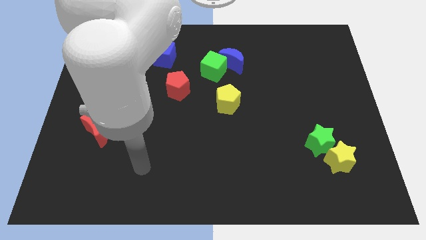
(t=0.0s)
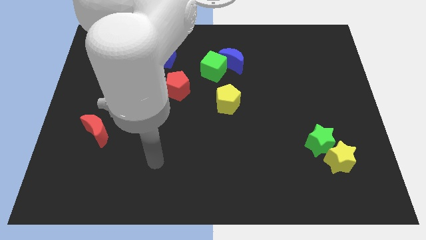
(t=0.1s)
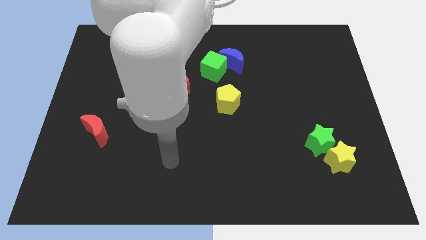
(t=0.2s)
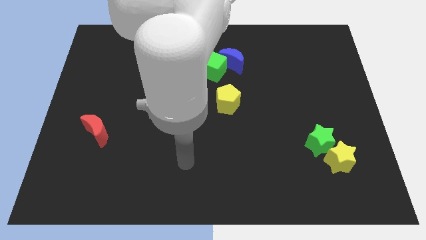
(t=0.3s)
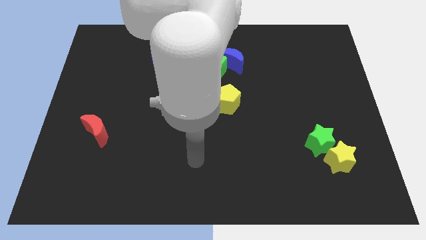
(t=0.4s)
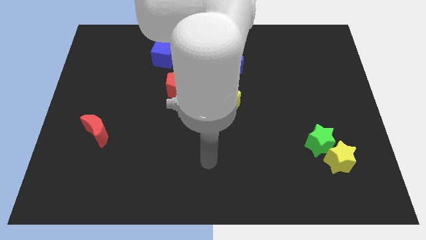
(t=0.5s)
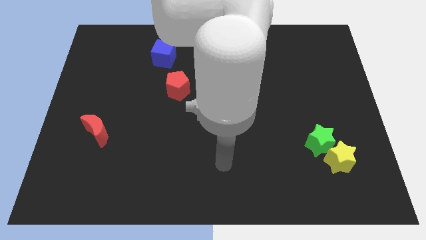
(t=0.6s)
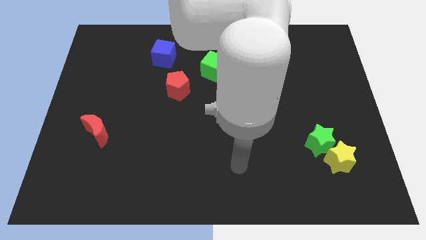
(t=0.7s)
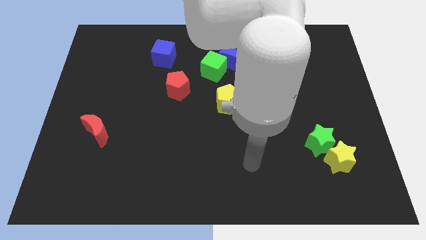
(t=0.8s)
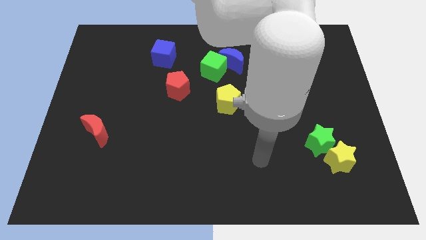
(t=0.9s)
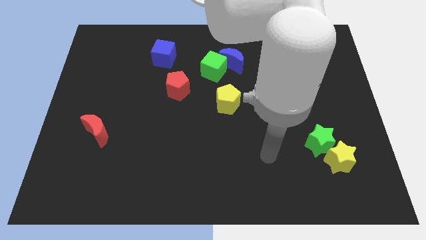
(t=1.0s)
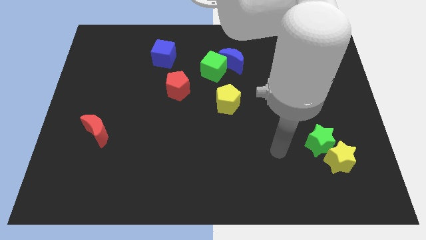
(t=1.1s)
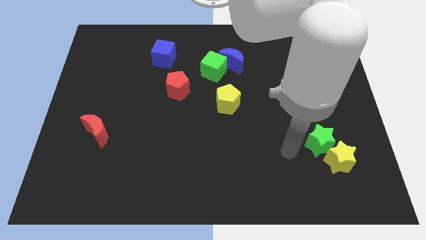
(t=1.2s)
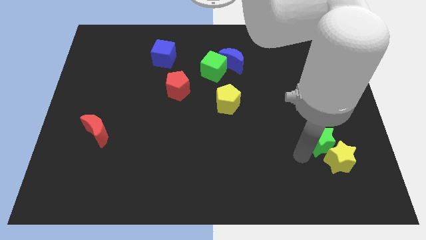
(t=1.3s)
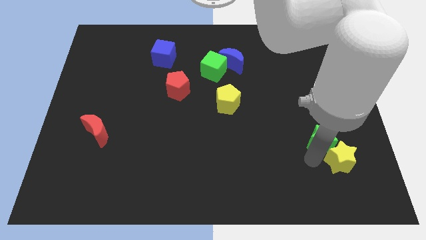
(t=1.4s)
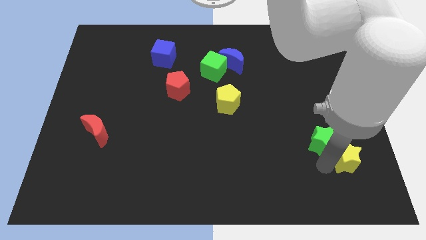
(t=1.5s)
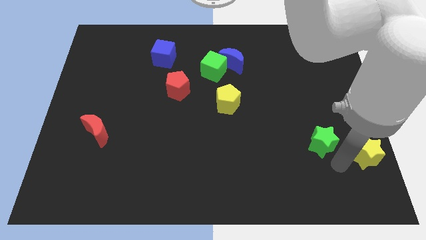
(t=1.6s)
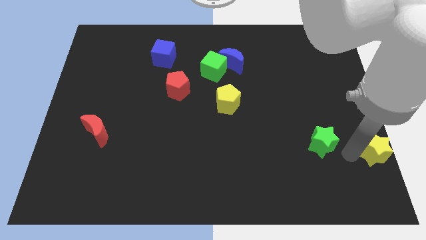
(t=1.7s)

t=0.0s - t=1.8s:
move the green star away from the yellow star

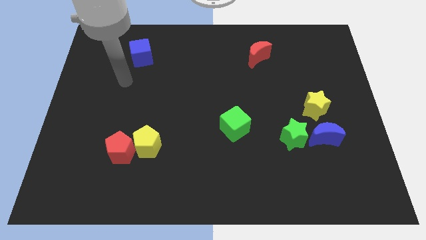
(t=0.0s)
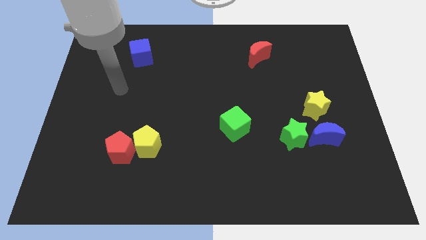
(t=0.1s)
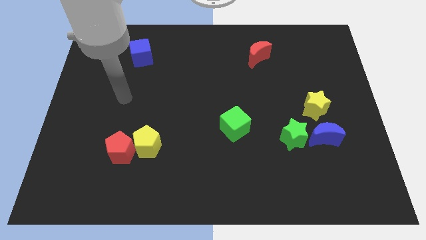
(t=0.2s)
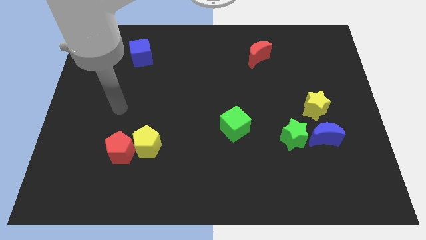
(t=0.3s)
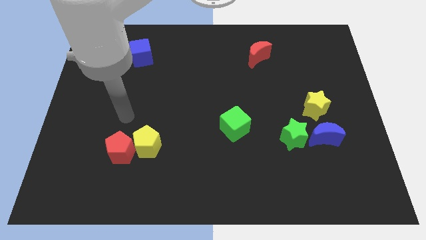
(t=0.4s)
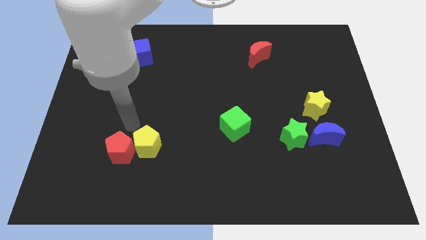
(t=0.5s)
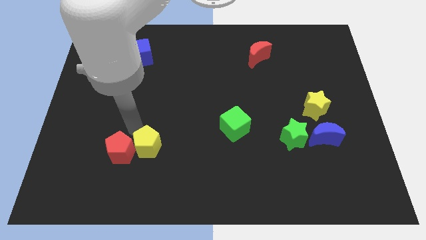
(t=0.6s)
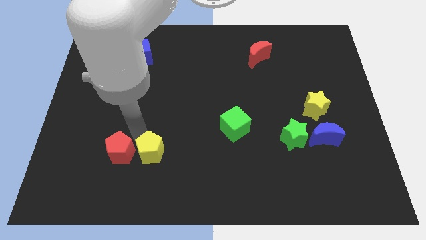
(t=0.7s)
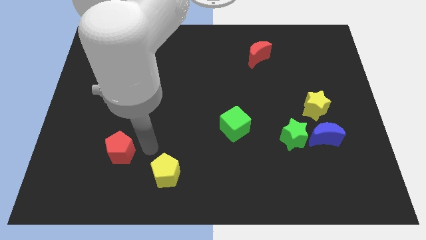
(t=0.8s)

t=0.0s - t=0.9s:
pull the red pentagon apart from the yellow pentagon

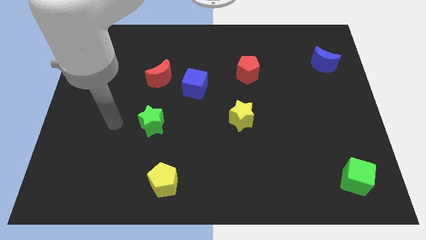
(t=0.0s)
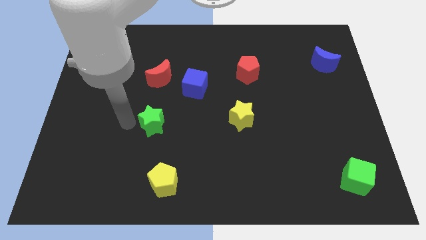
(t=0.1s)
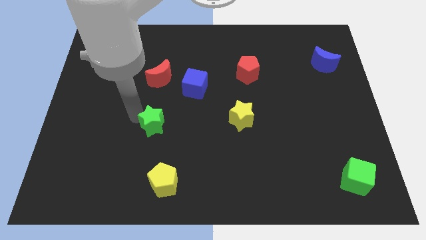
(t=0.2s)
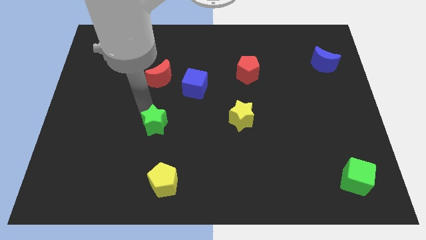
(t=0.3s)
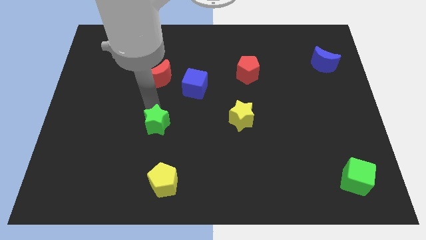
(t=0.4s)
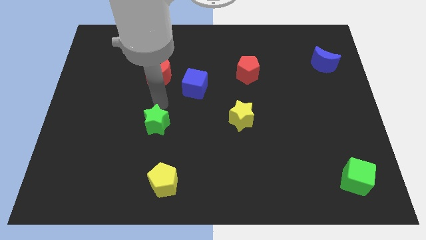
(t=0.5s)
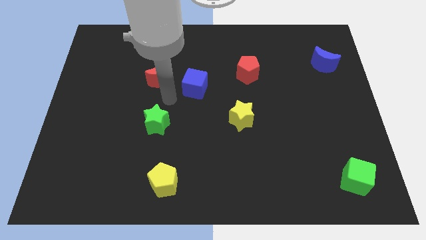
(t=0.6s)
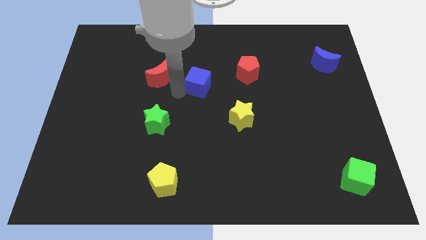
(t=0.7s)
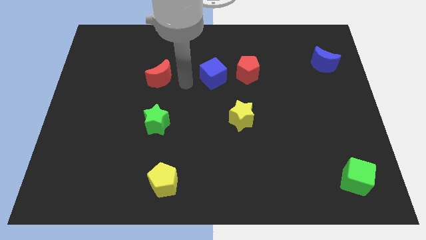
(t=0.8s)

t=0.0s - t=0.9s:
pull the red moon apart from the blue cube

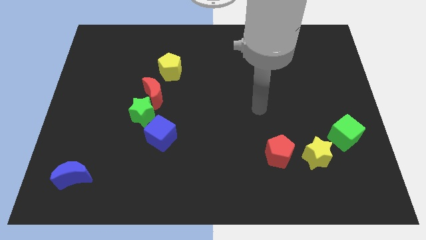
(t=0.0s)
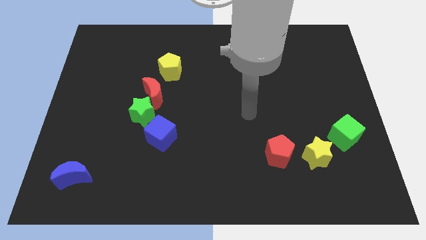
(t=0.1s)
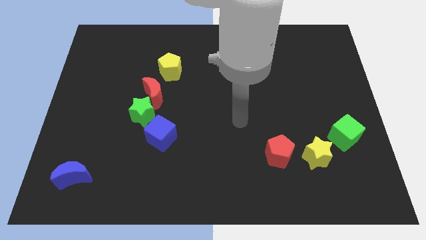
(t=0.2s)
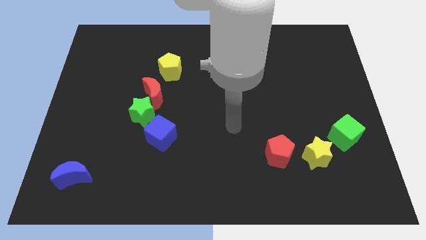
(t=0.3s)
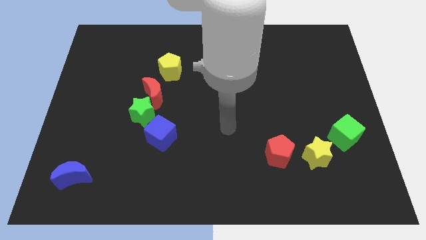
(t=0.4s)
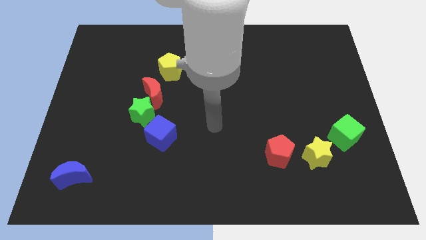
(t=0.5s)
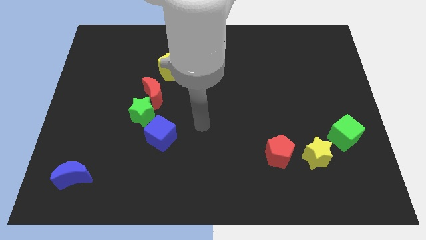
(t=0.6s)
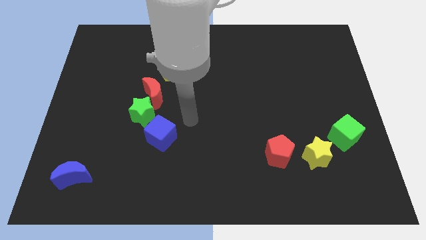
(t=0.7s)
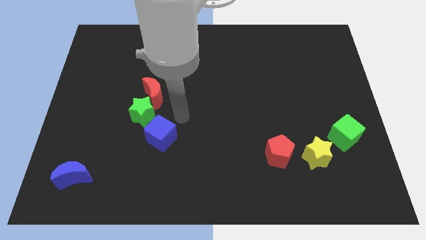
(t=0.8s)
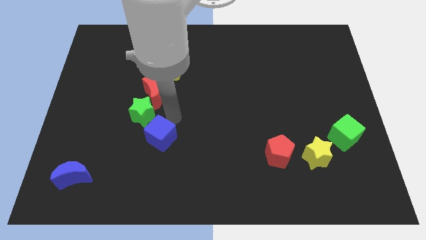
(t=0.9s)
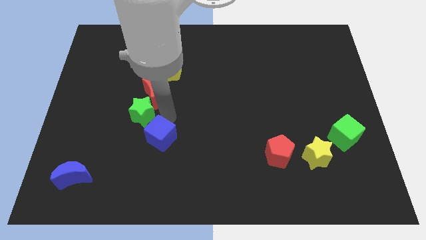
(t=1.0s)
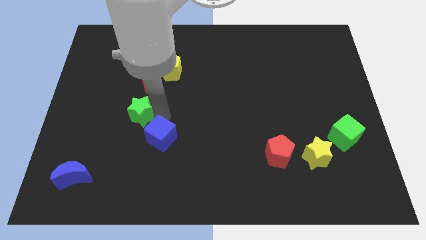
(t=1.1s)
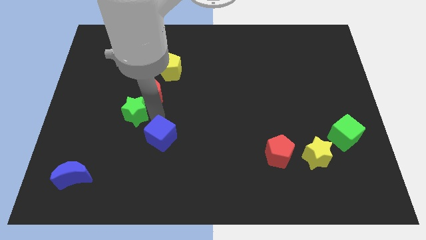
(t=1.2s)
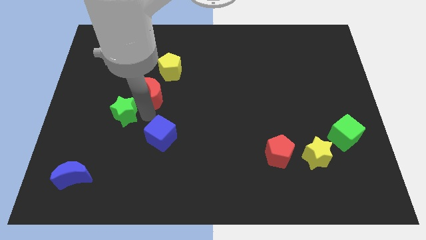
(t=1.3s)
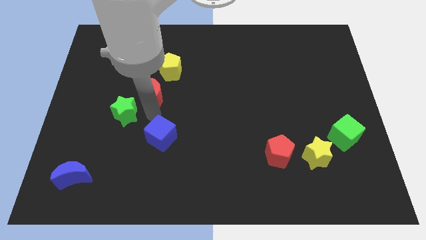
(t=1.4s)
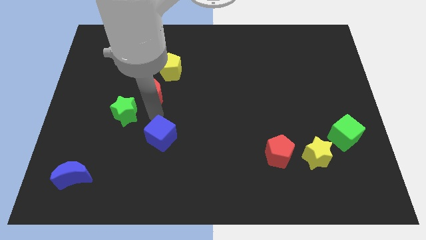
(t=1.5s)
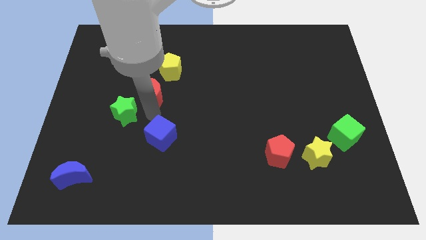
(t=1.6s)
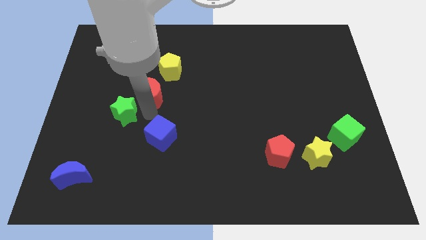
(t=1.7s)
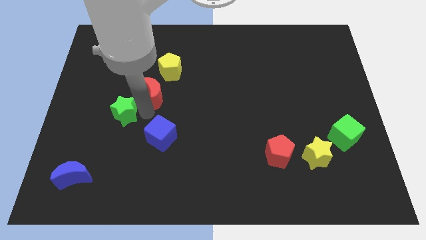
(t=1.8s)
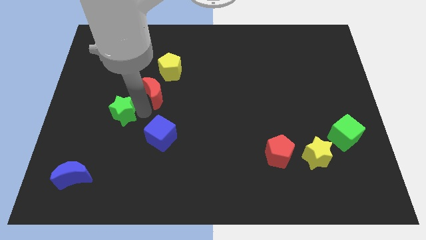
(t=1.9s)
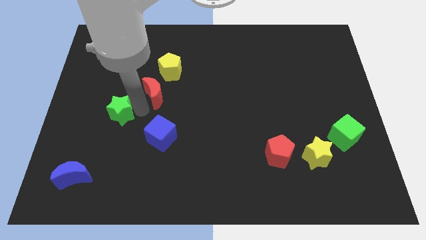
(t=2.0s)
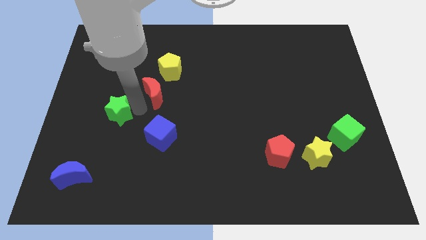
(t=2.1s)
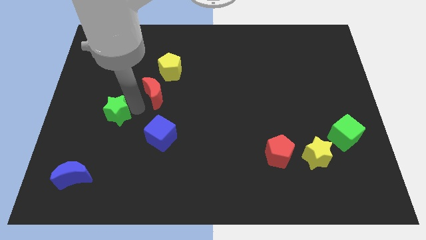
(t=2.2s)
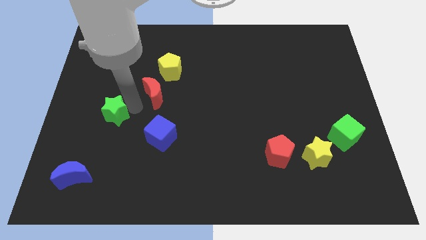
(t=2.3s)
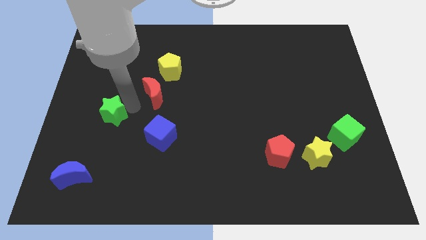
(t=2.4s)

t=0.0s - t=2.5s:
separate the green star from the red moon and blue cube

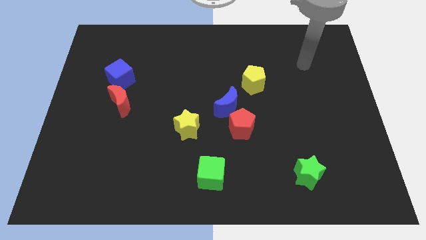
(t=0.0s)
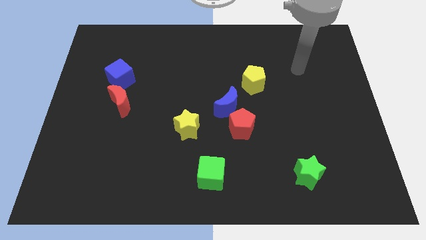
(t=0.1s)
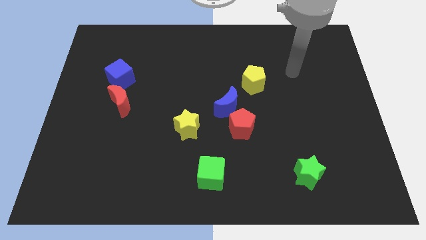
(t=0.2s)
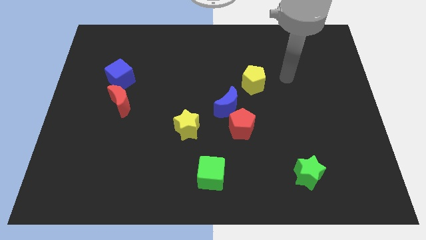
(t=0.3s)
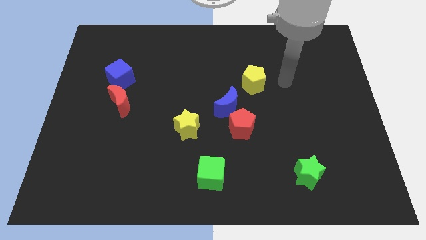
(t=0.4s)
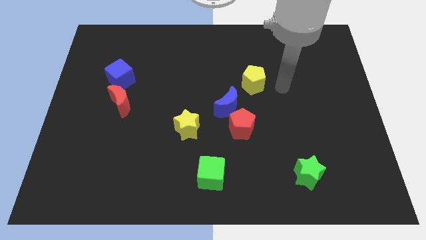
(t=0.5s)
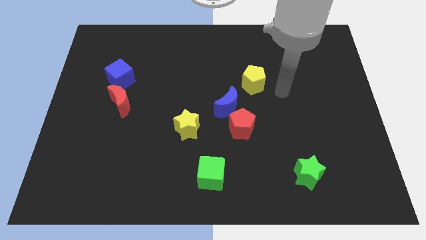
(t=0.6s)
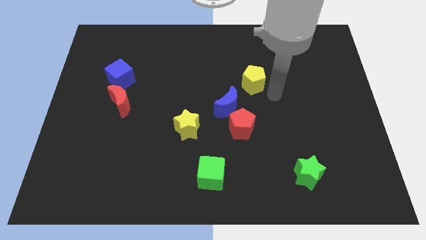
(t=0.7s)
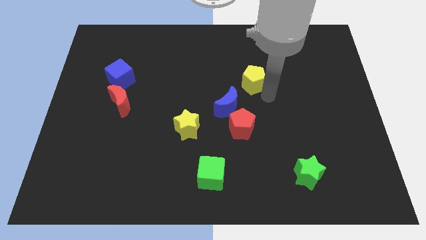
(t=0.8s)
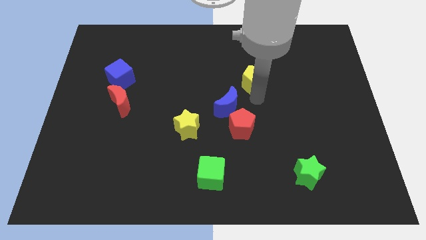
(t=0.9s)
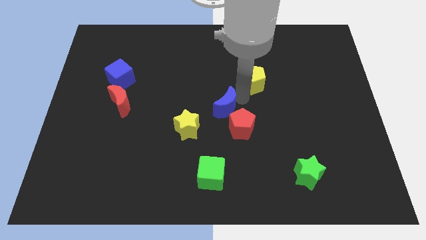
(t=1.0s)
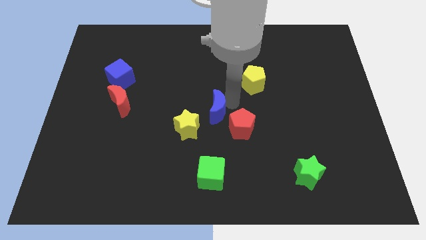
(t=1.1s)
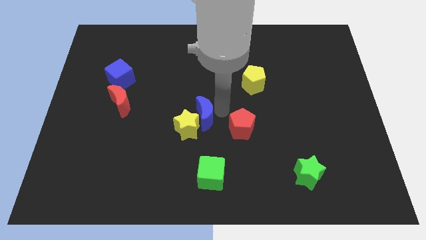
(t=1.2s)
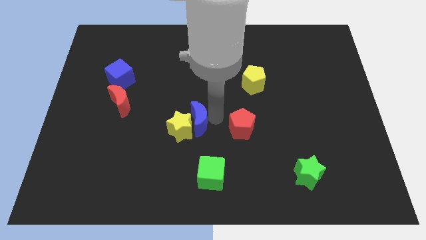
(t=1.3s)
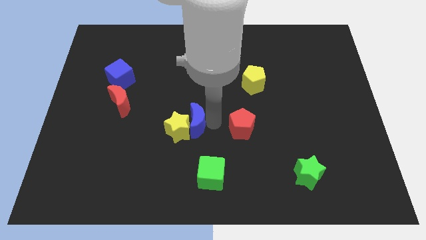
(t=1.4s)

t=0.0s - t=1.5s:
separate the red pentagon from the blue moon

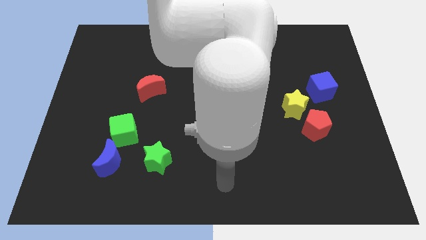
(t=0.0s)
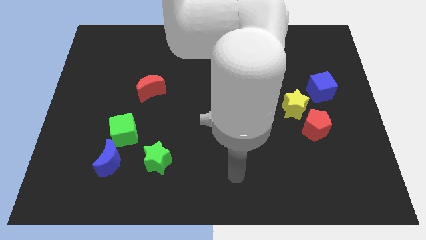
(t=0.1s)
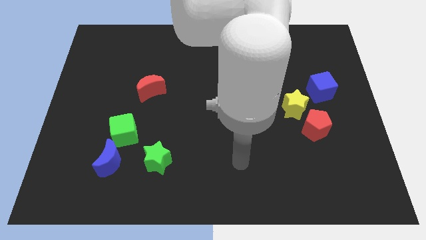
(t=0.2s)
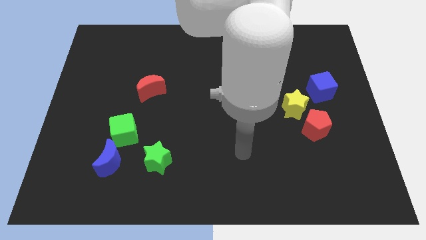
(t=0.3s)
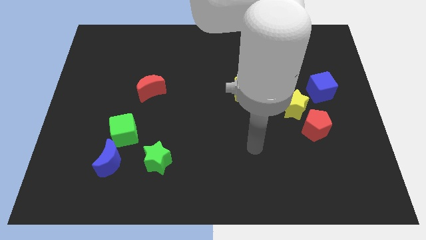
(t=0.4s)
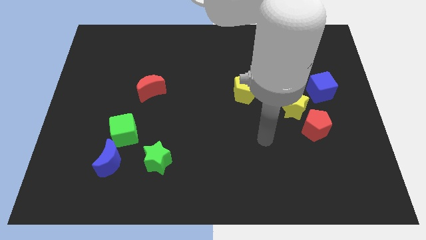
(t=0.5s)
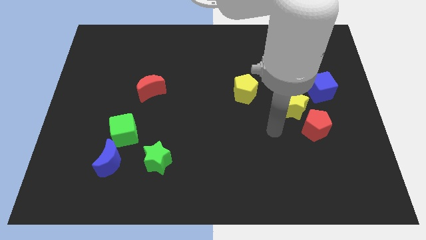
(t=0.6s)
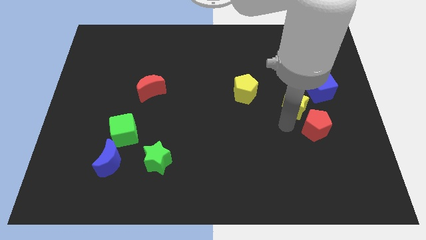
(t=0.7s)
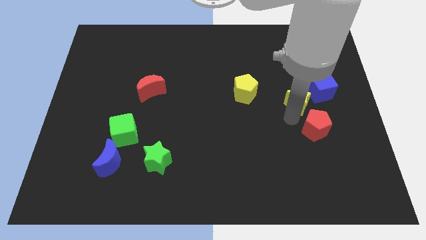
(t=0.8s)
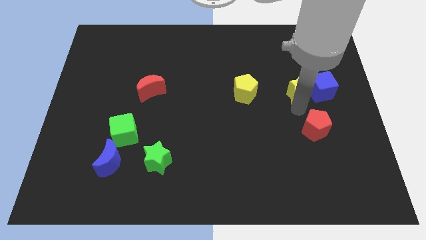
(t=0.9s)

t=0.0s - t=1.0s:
move the red pentagon away from the yellow star

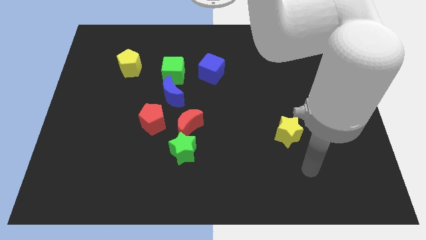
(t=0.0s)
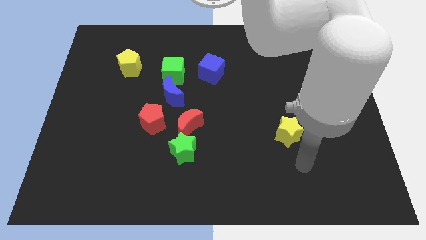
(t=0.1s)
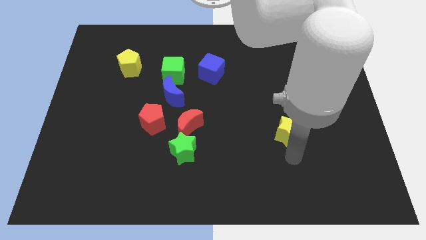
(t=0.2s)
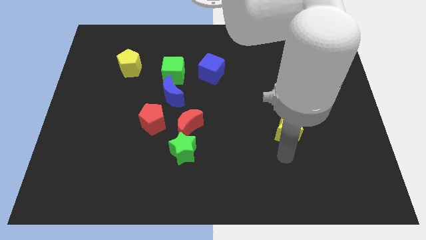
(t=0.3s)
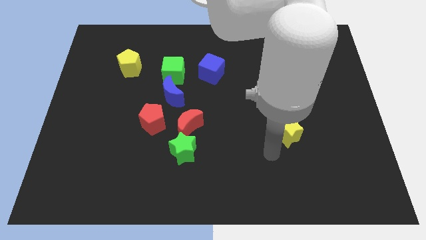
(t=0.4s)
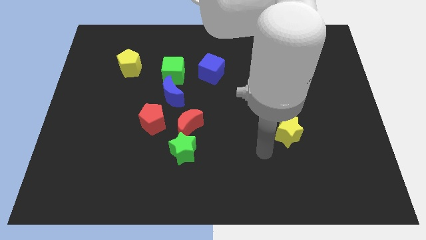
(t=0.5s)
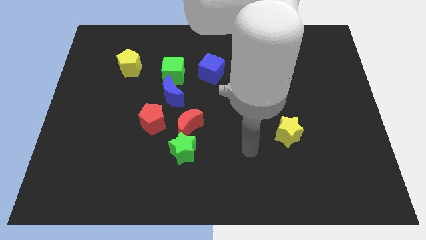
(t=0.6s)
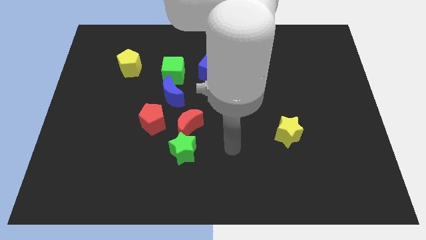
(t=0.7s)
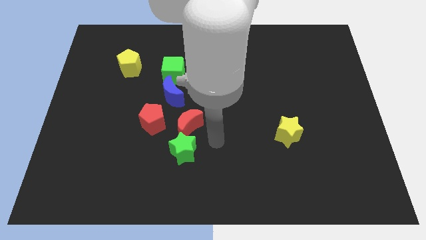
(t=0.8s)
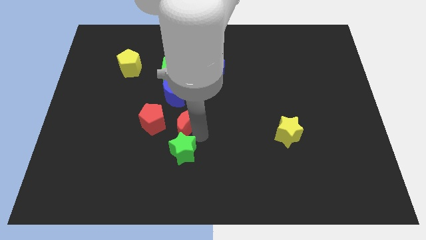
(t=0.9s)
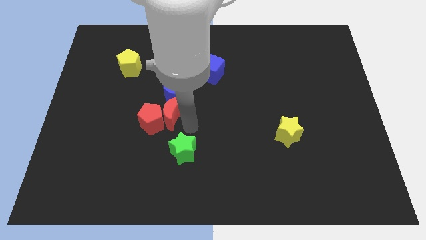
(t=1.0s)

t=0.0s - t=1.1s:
separate the green star from the red moon
